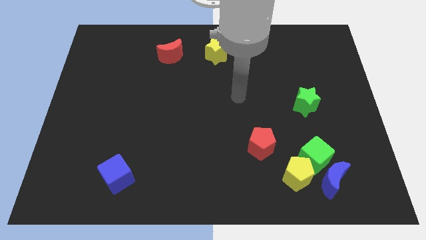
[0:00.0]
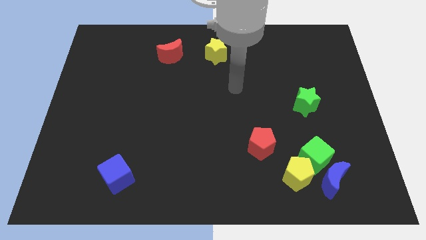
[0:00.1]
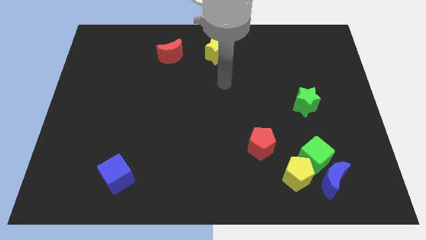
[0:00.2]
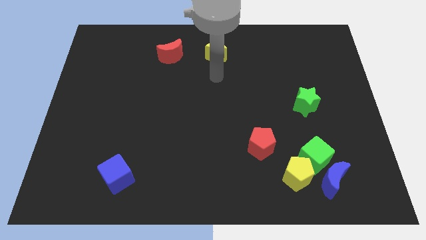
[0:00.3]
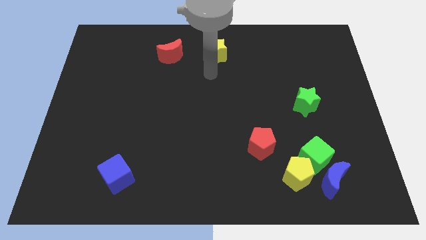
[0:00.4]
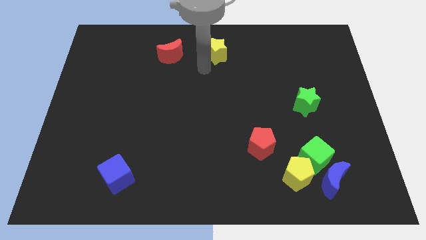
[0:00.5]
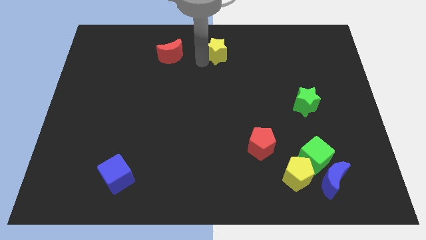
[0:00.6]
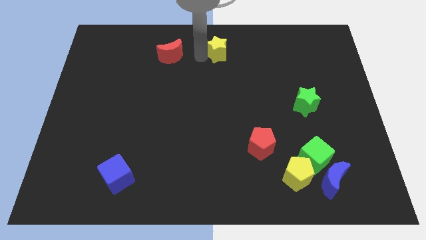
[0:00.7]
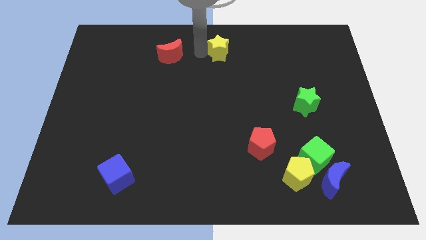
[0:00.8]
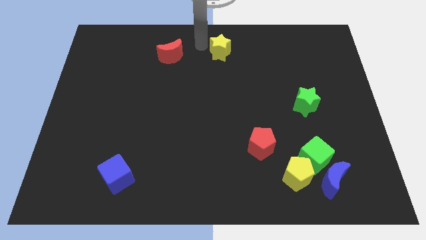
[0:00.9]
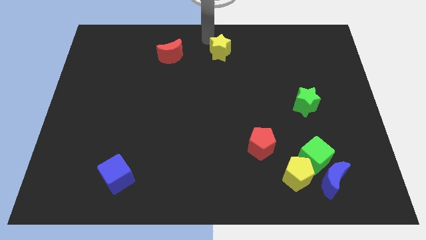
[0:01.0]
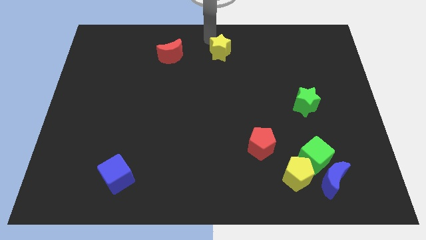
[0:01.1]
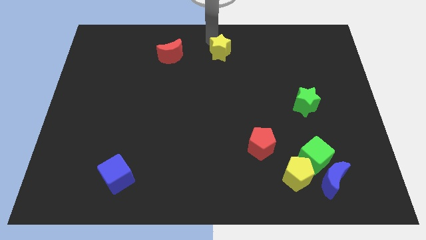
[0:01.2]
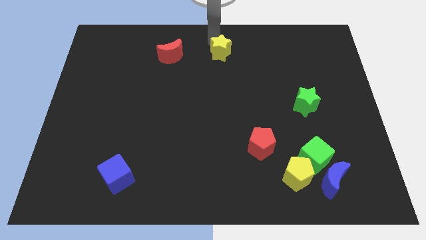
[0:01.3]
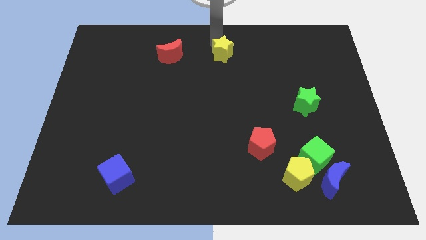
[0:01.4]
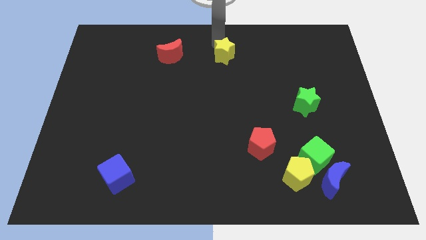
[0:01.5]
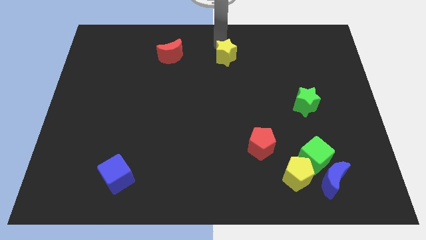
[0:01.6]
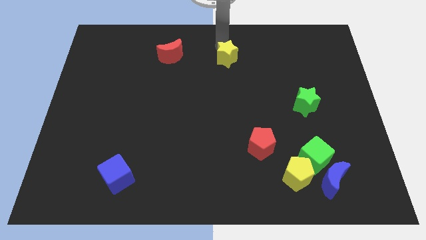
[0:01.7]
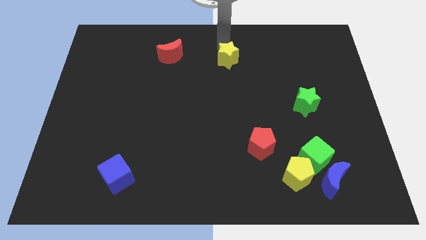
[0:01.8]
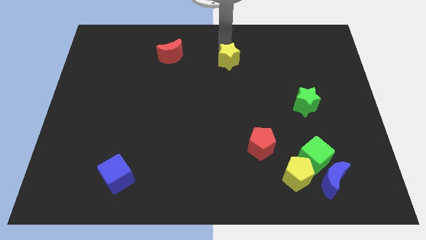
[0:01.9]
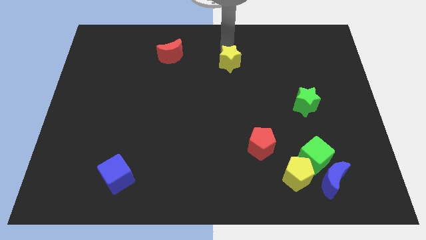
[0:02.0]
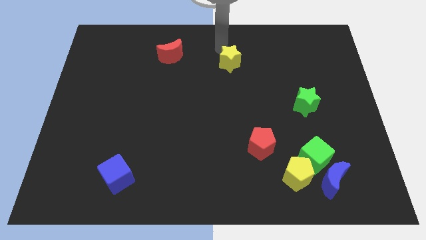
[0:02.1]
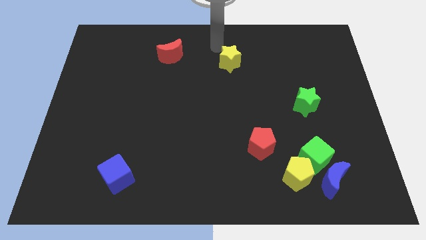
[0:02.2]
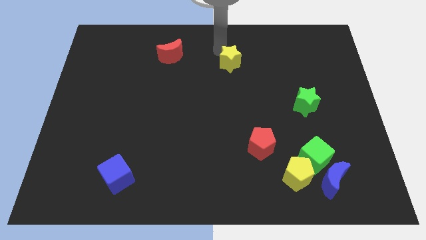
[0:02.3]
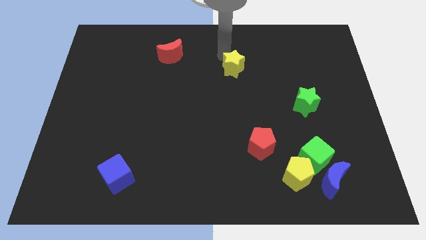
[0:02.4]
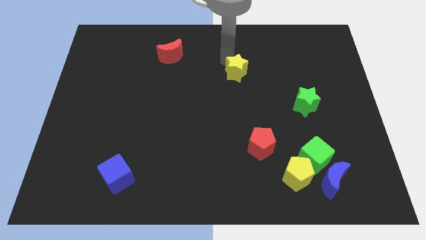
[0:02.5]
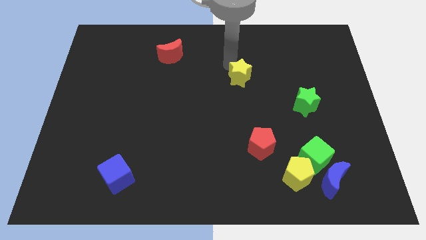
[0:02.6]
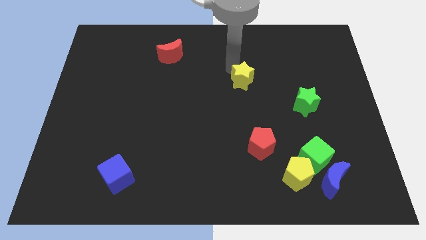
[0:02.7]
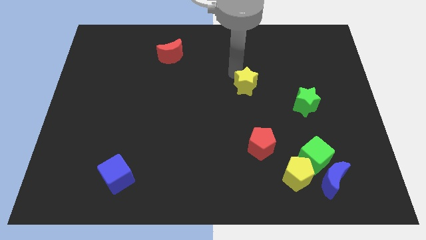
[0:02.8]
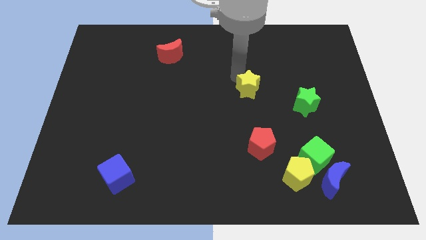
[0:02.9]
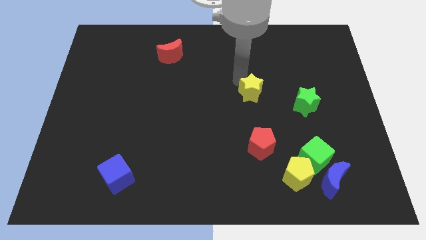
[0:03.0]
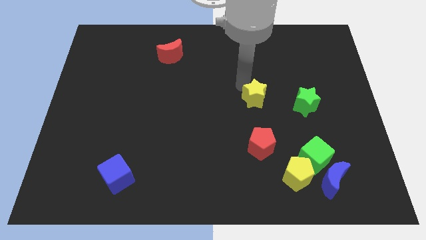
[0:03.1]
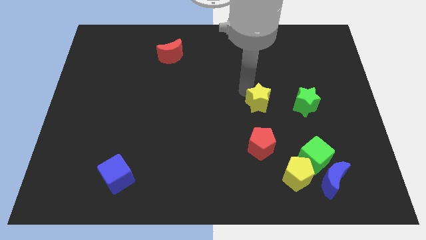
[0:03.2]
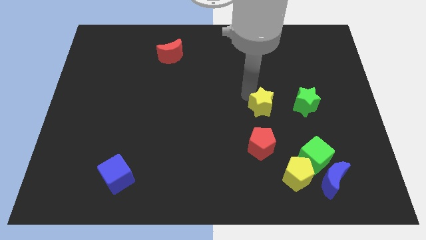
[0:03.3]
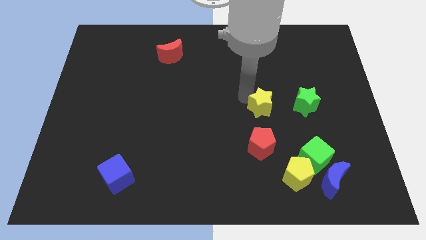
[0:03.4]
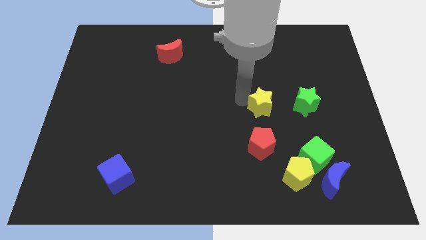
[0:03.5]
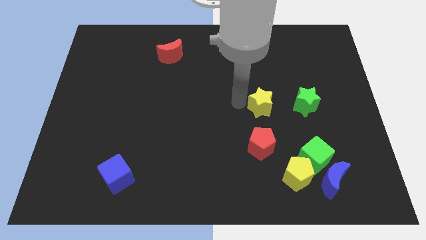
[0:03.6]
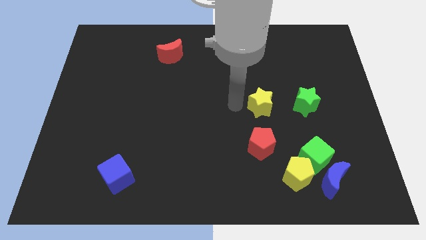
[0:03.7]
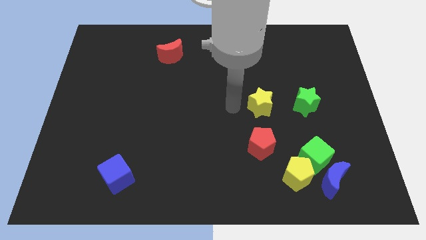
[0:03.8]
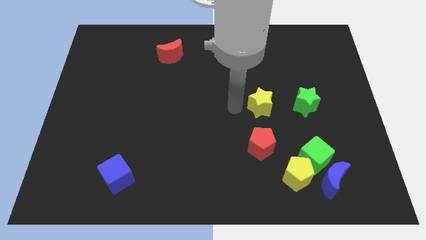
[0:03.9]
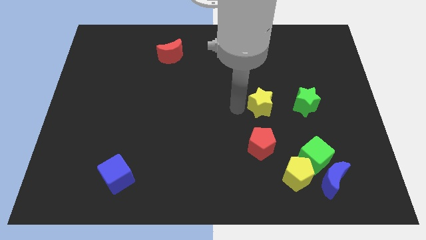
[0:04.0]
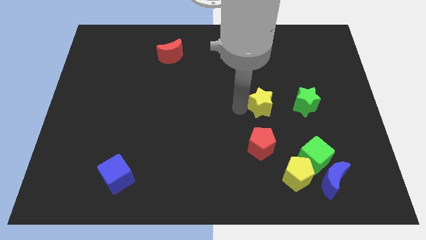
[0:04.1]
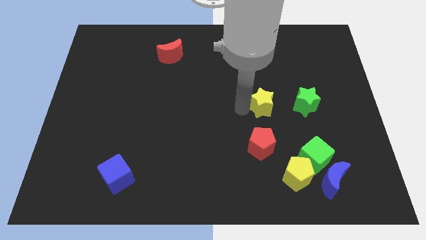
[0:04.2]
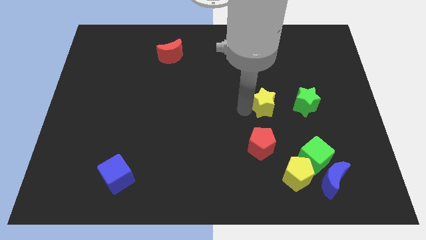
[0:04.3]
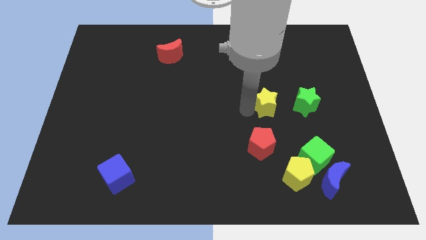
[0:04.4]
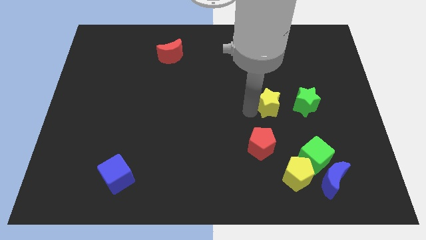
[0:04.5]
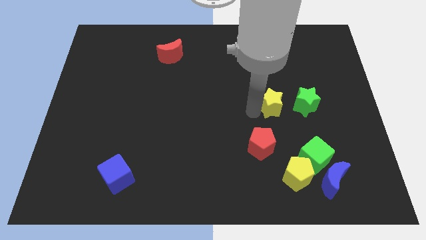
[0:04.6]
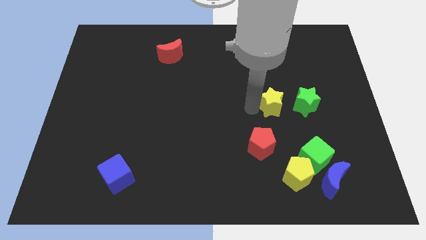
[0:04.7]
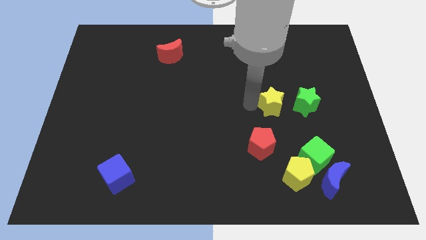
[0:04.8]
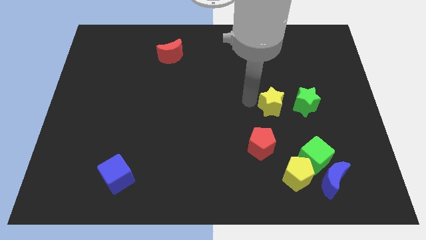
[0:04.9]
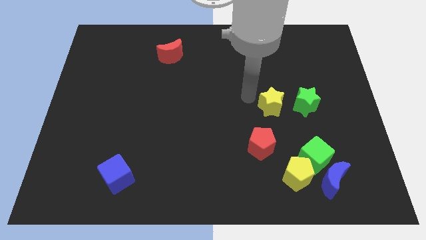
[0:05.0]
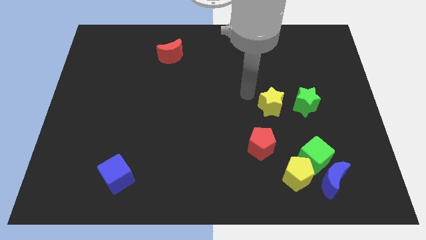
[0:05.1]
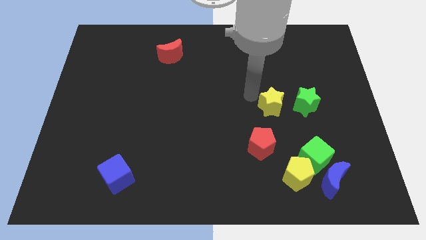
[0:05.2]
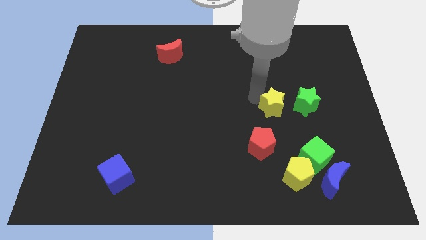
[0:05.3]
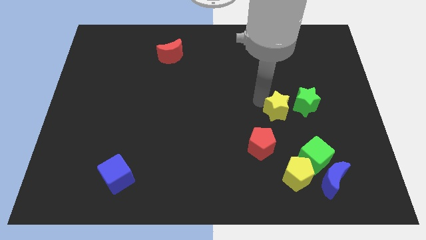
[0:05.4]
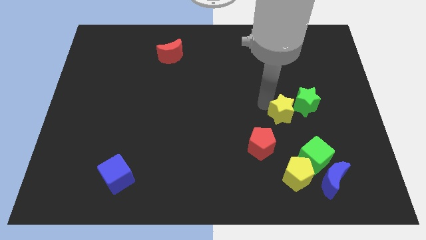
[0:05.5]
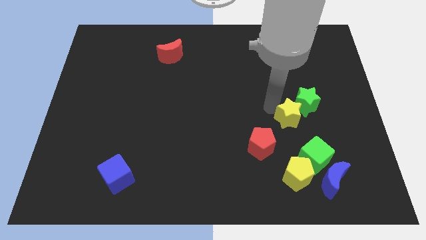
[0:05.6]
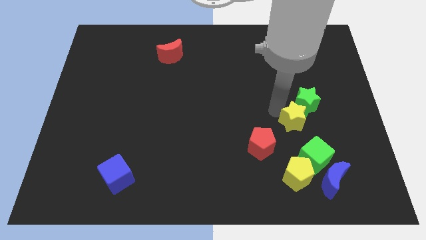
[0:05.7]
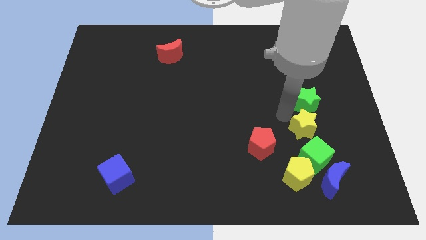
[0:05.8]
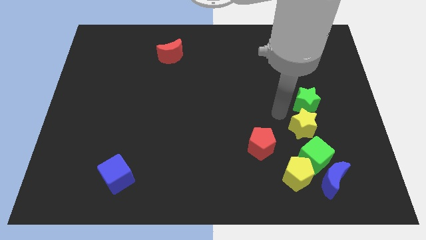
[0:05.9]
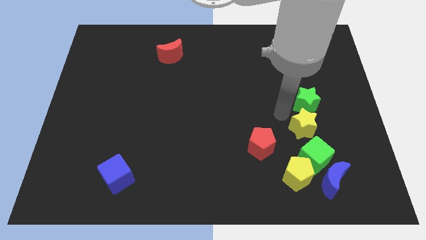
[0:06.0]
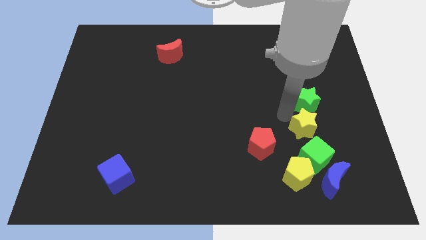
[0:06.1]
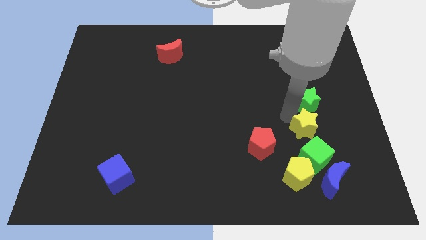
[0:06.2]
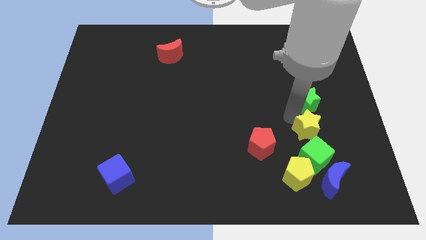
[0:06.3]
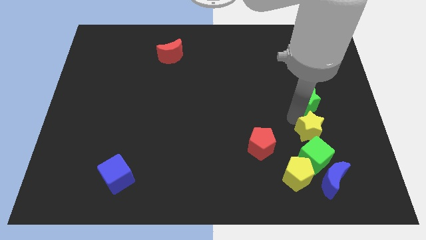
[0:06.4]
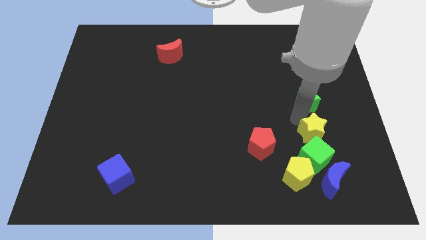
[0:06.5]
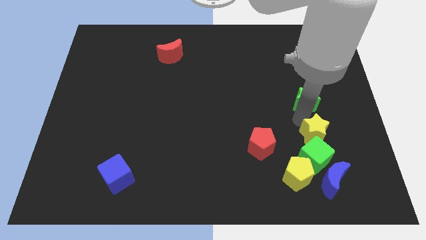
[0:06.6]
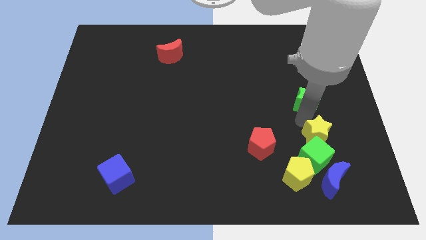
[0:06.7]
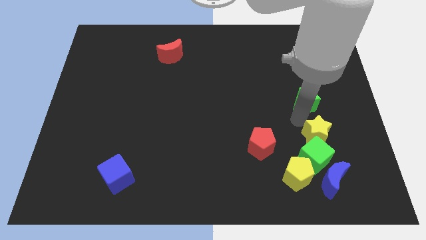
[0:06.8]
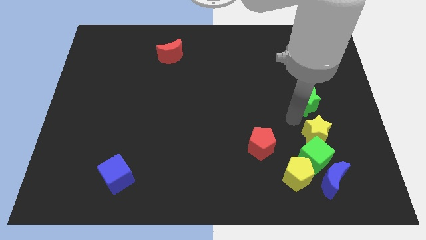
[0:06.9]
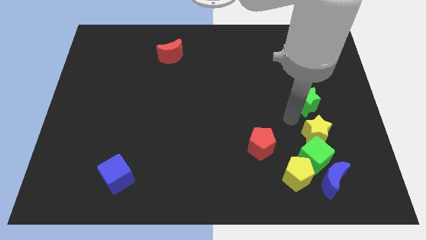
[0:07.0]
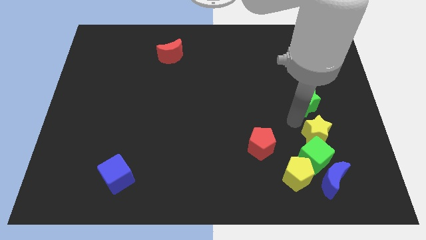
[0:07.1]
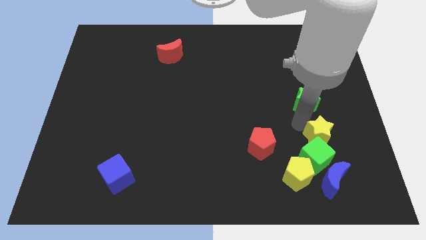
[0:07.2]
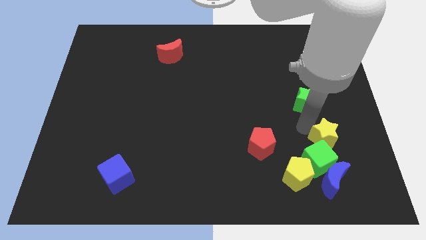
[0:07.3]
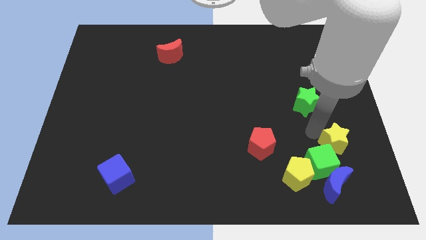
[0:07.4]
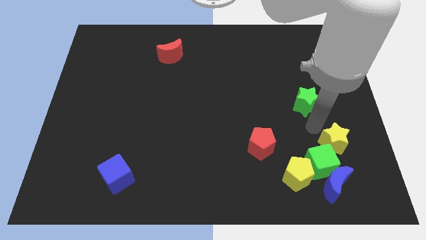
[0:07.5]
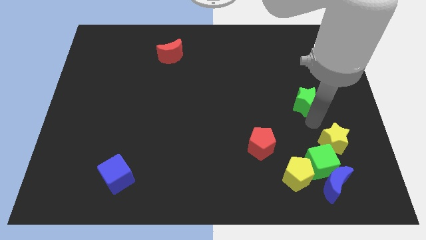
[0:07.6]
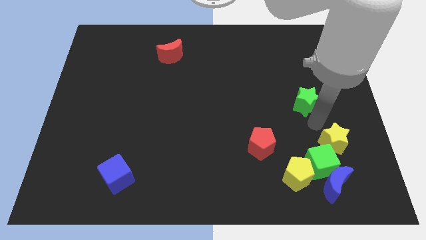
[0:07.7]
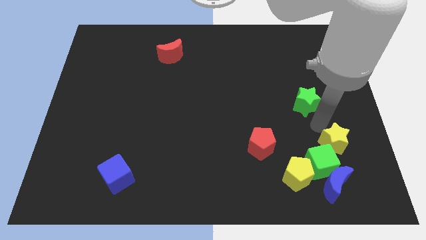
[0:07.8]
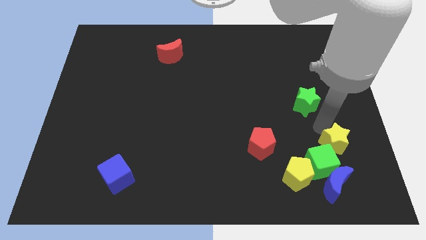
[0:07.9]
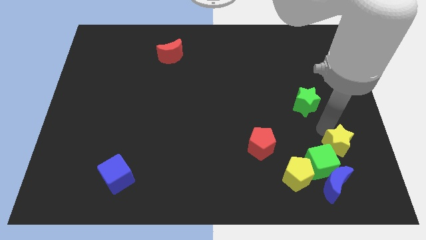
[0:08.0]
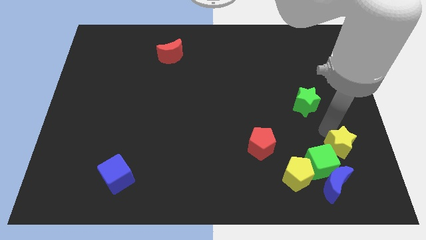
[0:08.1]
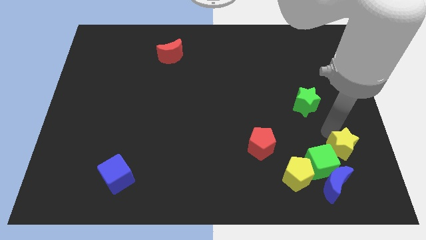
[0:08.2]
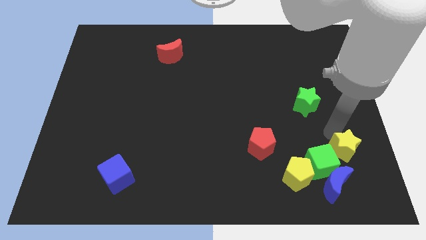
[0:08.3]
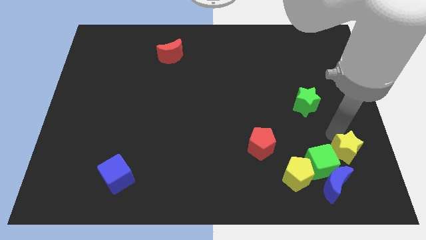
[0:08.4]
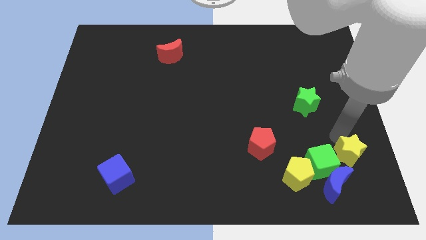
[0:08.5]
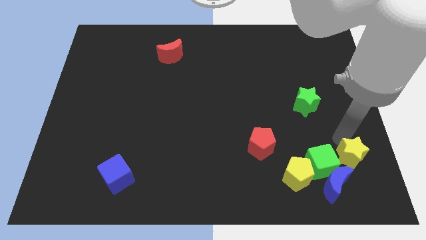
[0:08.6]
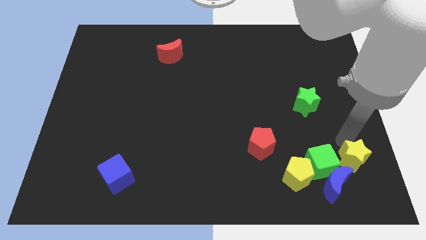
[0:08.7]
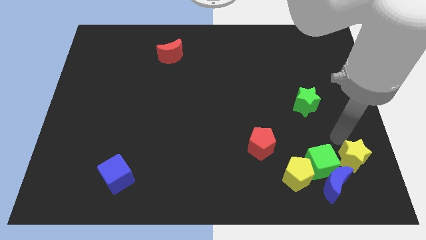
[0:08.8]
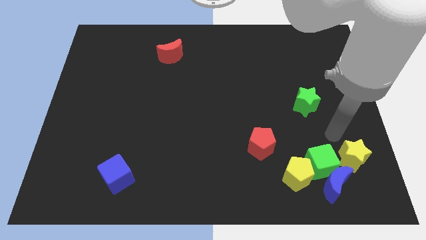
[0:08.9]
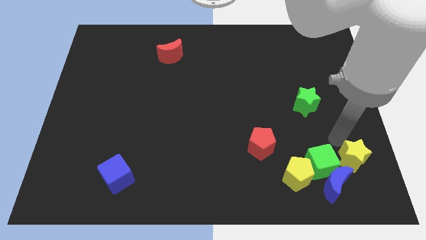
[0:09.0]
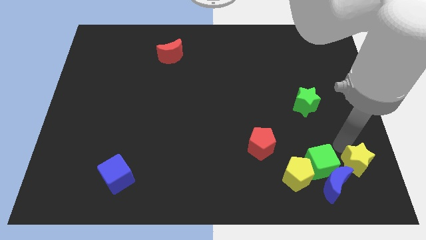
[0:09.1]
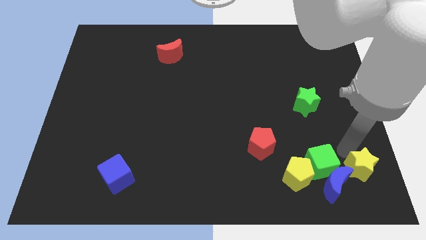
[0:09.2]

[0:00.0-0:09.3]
move the yellow star to the bottom right of the board
